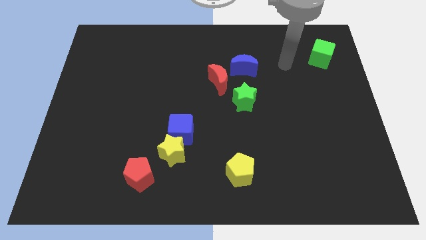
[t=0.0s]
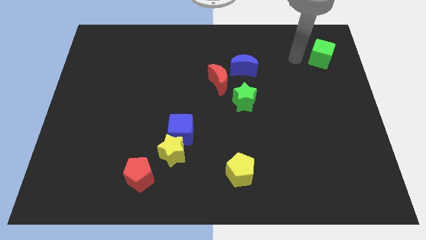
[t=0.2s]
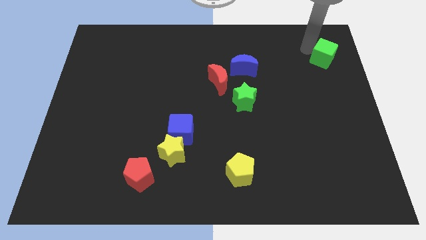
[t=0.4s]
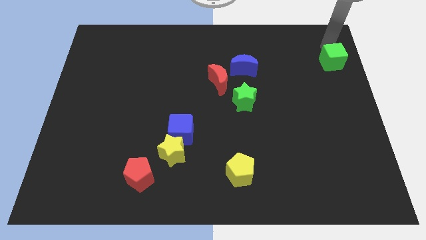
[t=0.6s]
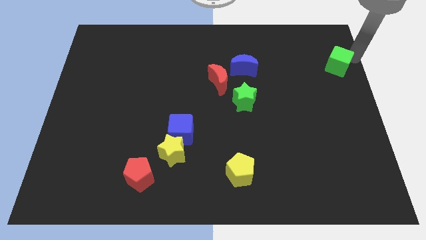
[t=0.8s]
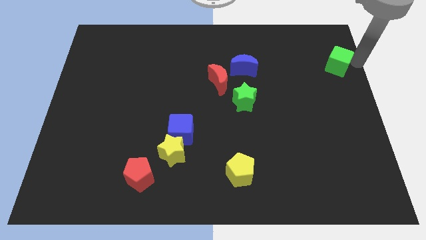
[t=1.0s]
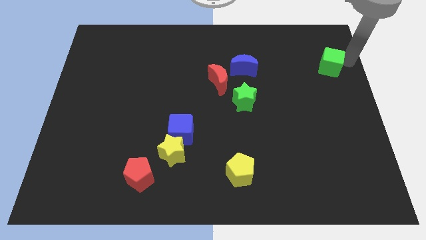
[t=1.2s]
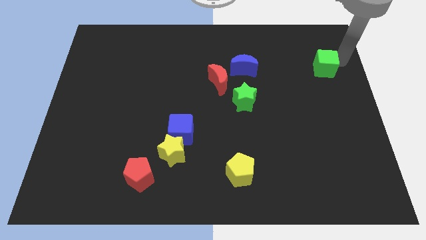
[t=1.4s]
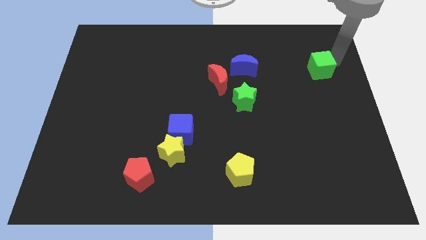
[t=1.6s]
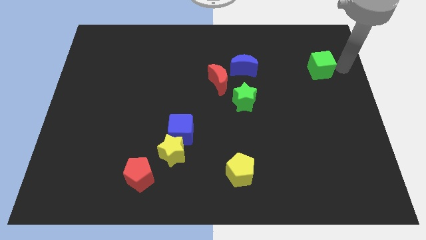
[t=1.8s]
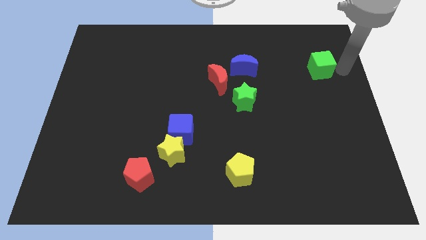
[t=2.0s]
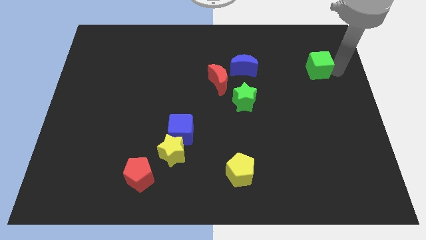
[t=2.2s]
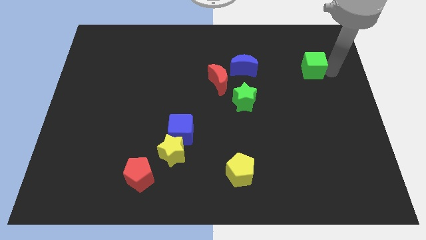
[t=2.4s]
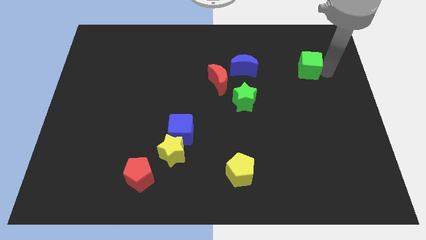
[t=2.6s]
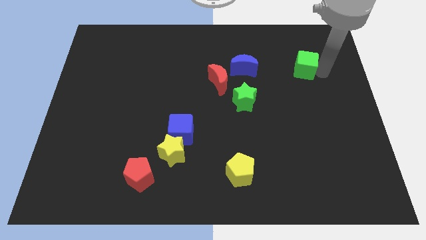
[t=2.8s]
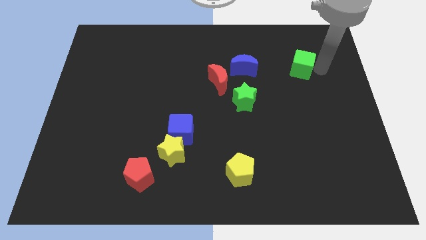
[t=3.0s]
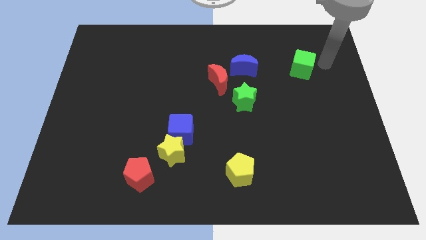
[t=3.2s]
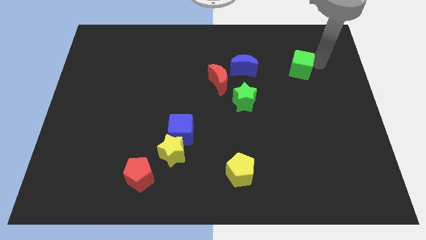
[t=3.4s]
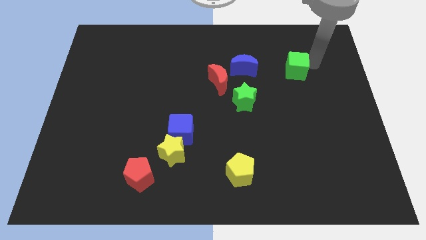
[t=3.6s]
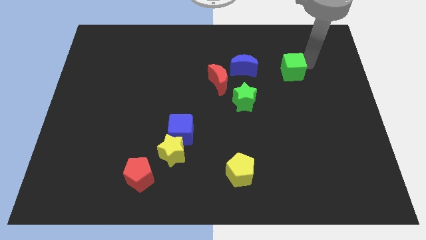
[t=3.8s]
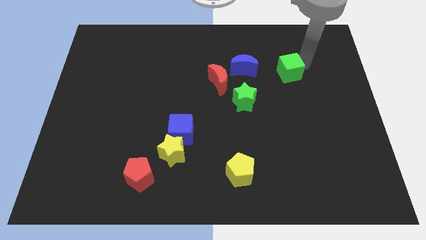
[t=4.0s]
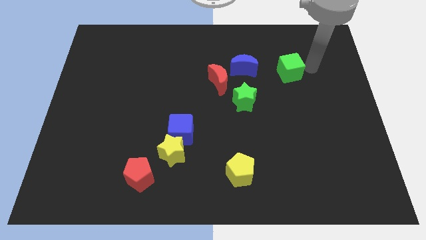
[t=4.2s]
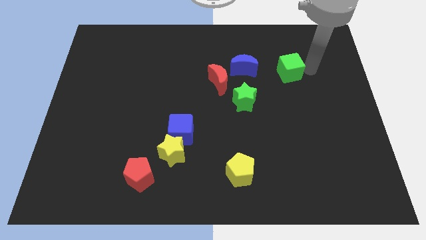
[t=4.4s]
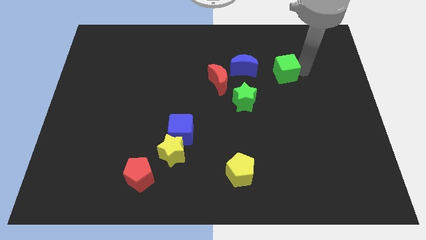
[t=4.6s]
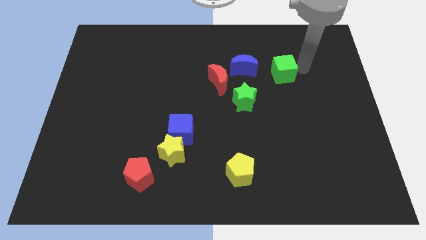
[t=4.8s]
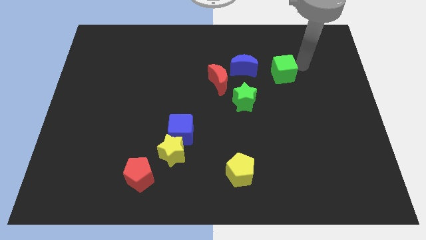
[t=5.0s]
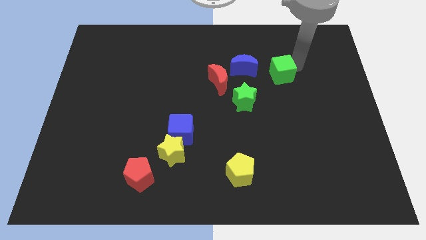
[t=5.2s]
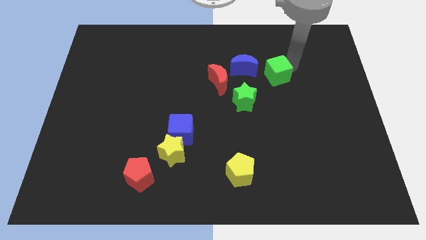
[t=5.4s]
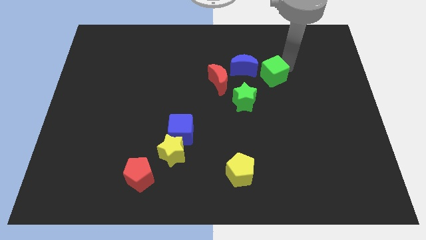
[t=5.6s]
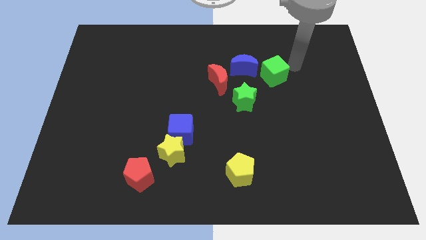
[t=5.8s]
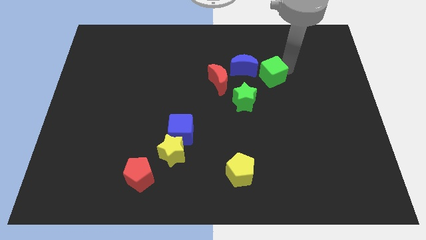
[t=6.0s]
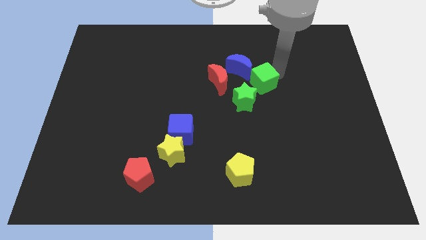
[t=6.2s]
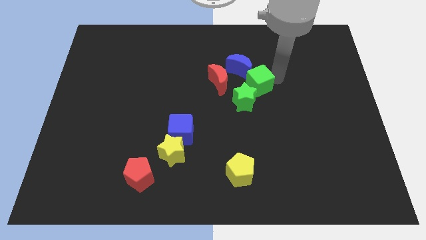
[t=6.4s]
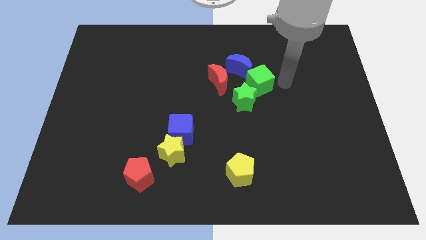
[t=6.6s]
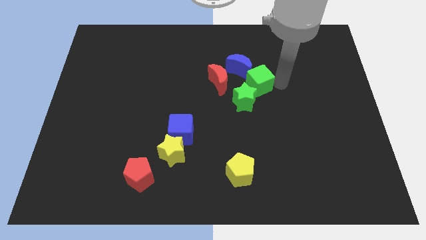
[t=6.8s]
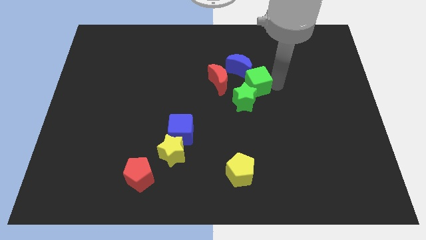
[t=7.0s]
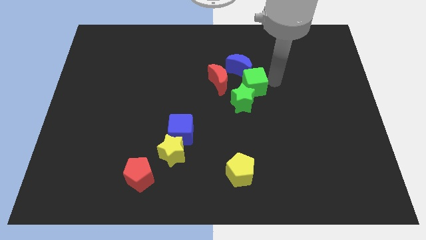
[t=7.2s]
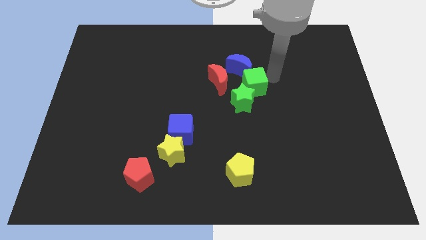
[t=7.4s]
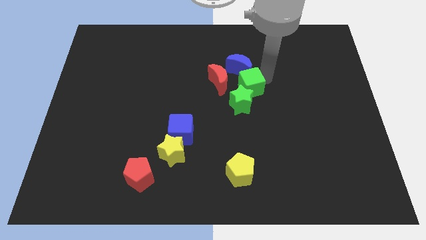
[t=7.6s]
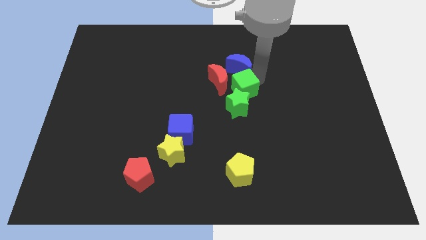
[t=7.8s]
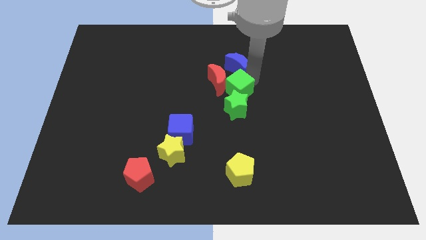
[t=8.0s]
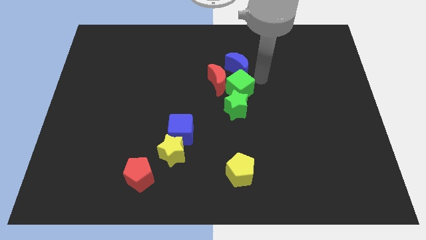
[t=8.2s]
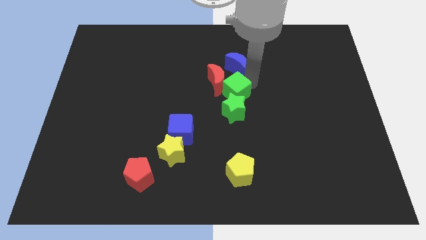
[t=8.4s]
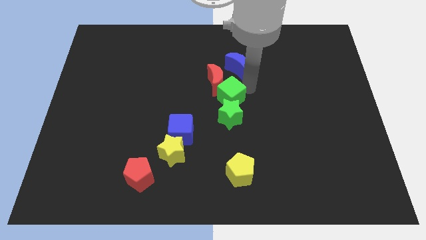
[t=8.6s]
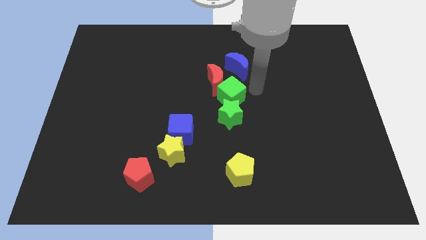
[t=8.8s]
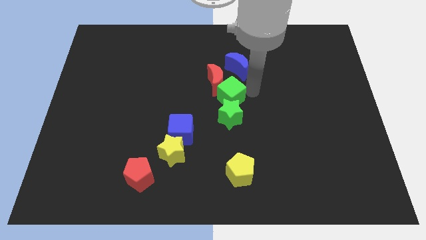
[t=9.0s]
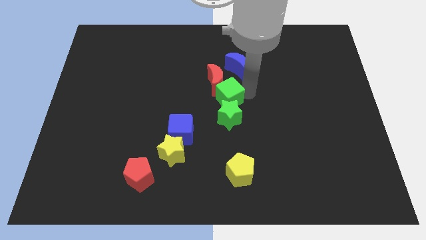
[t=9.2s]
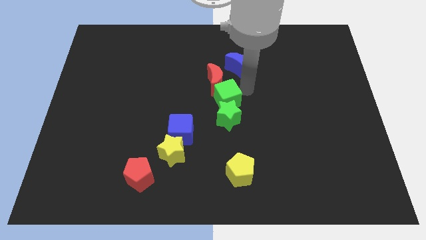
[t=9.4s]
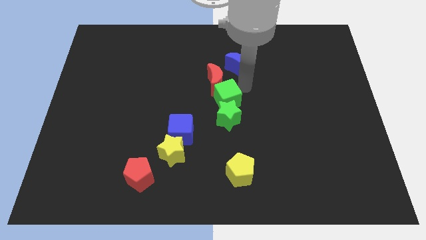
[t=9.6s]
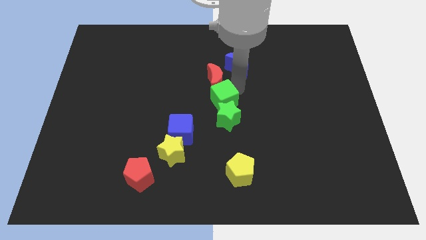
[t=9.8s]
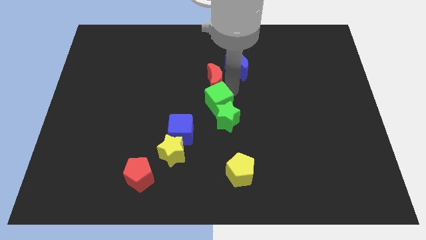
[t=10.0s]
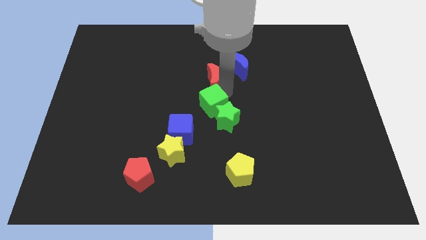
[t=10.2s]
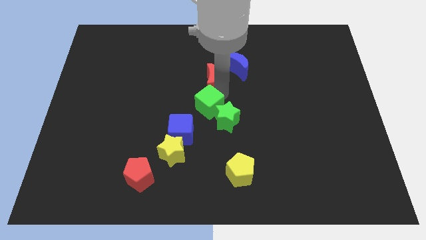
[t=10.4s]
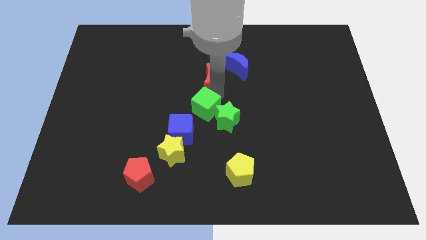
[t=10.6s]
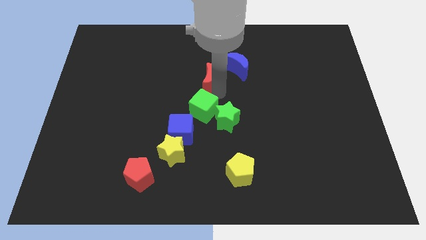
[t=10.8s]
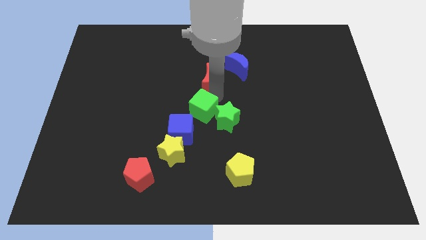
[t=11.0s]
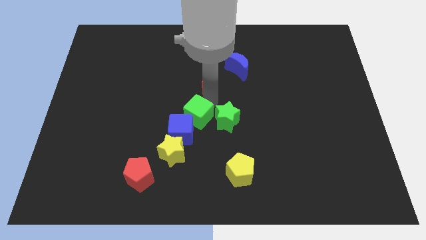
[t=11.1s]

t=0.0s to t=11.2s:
move the green cube to the blue cube

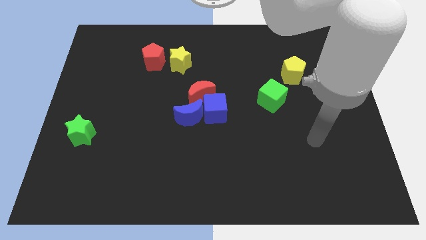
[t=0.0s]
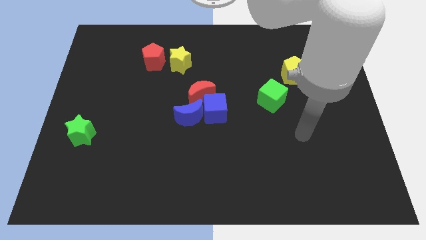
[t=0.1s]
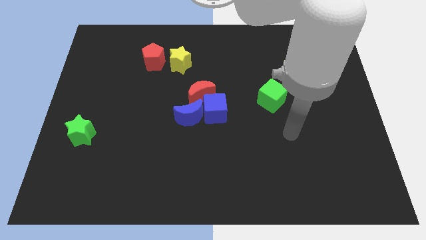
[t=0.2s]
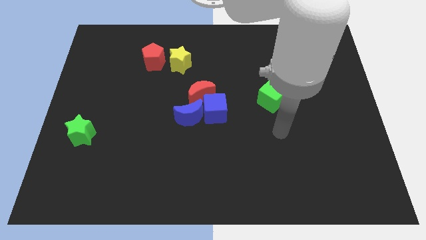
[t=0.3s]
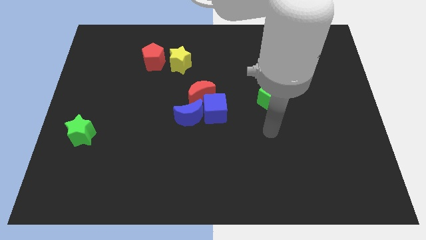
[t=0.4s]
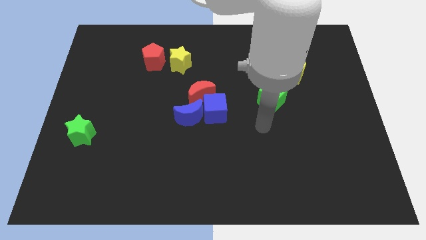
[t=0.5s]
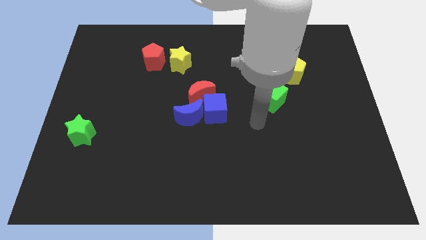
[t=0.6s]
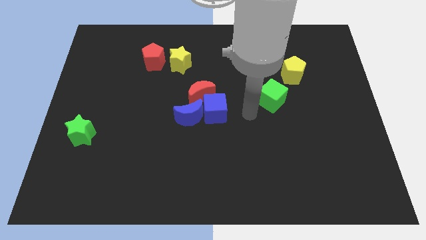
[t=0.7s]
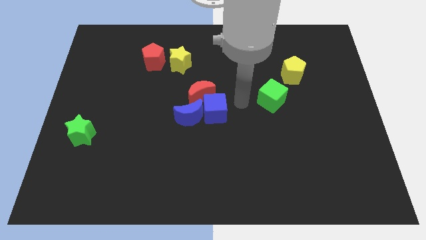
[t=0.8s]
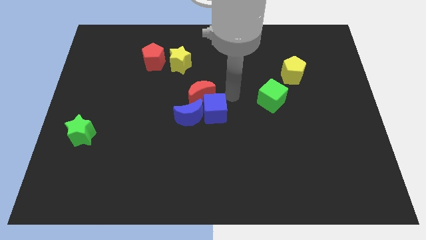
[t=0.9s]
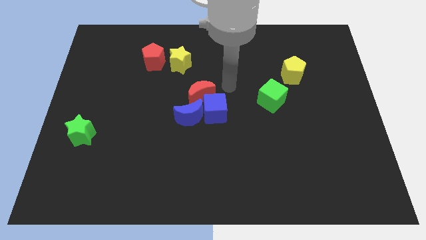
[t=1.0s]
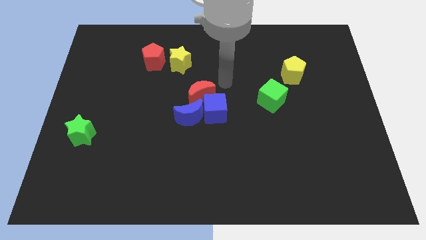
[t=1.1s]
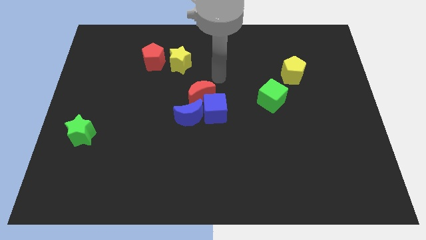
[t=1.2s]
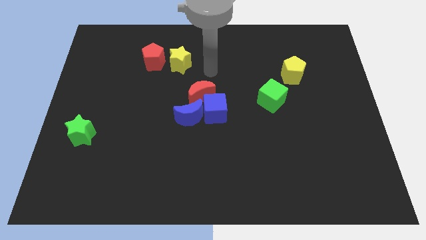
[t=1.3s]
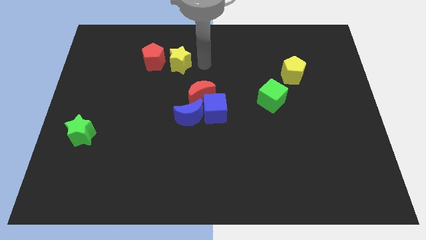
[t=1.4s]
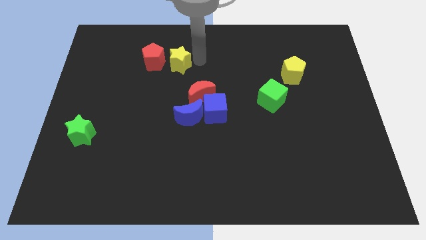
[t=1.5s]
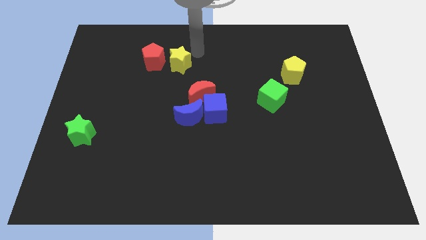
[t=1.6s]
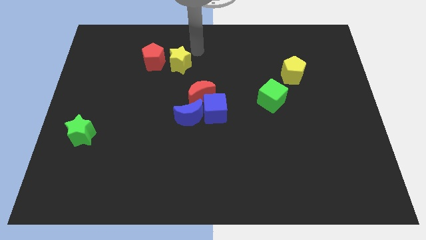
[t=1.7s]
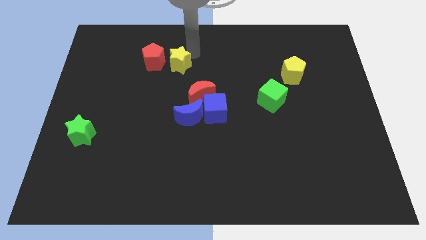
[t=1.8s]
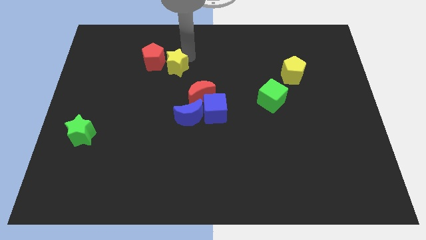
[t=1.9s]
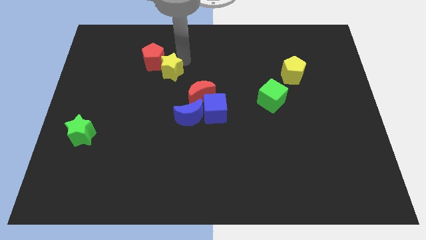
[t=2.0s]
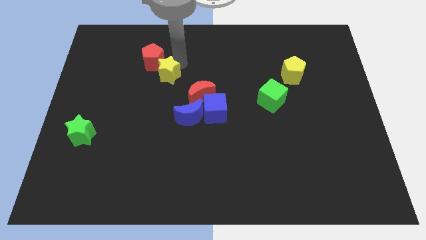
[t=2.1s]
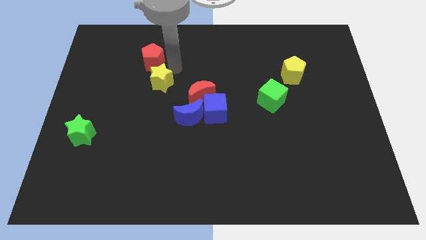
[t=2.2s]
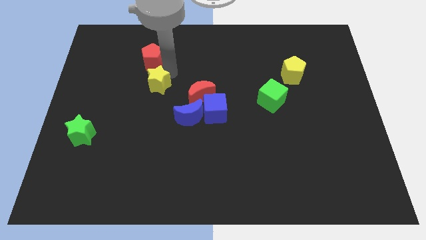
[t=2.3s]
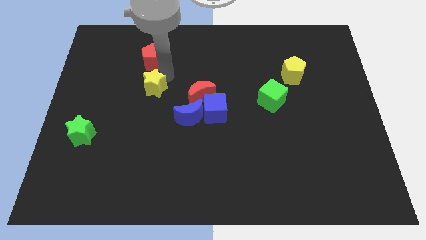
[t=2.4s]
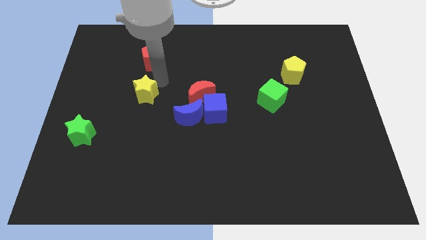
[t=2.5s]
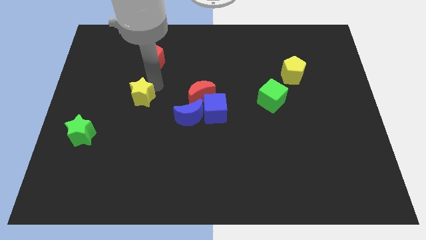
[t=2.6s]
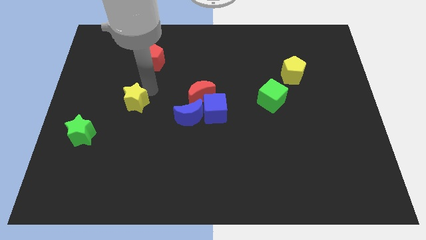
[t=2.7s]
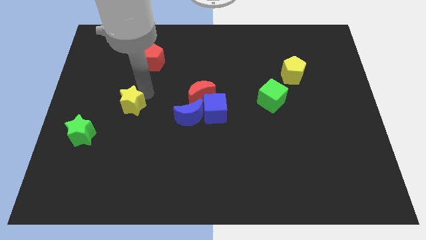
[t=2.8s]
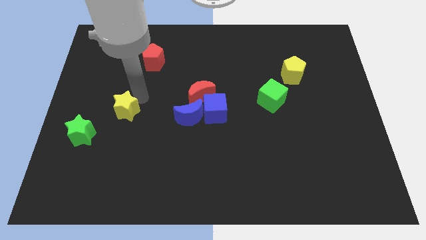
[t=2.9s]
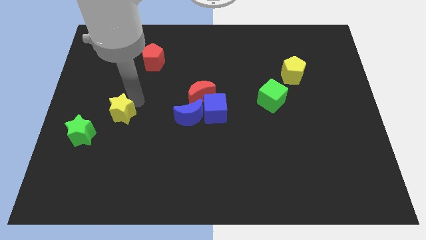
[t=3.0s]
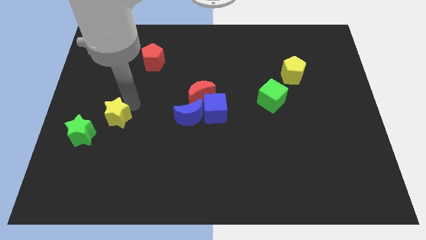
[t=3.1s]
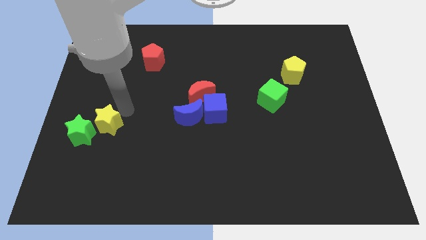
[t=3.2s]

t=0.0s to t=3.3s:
slide the yellow star close to the green star
